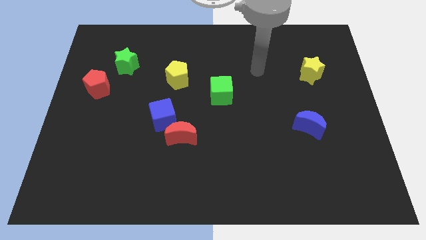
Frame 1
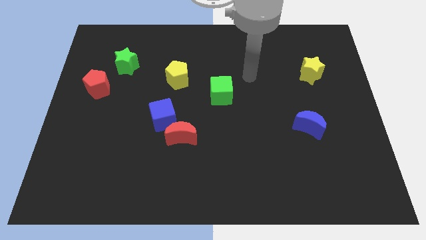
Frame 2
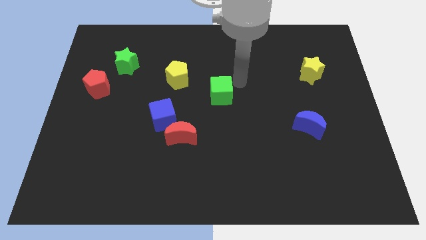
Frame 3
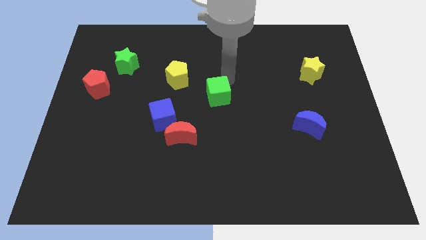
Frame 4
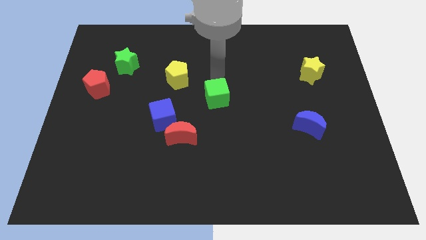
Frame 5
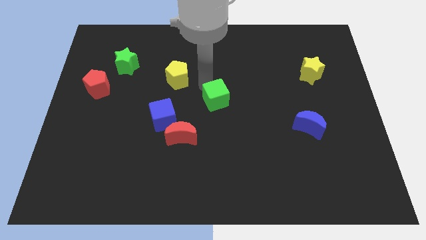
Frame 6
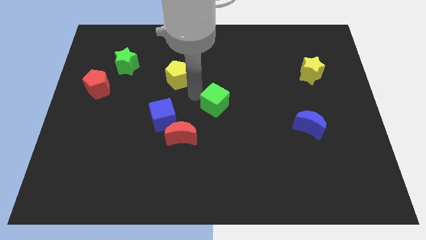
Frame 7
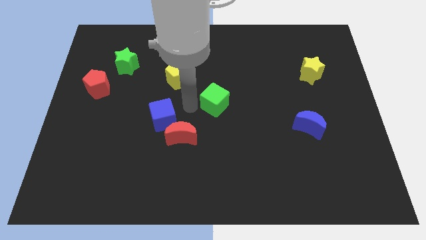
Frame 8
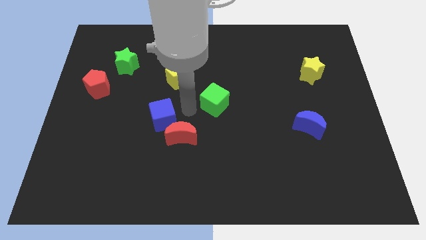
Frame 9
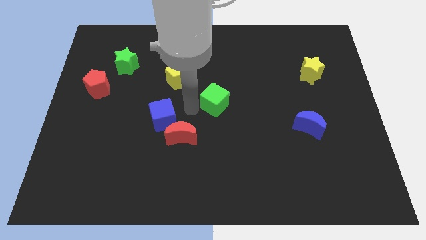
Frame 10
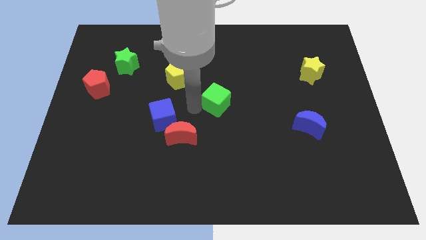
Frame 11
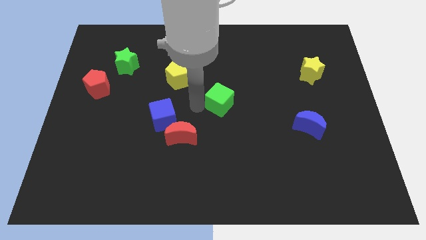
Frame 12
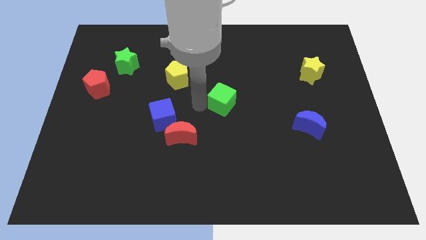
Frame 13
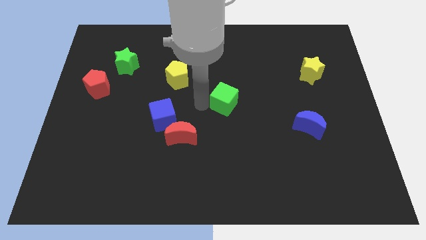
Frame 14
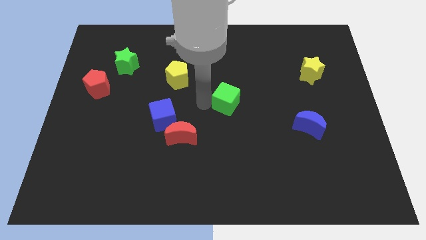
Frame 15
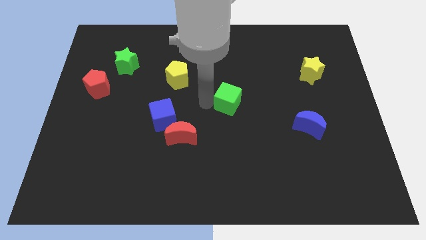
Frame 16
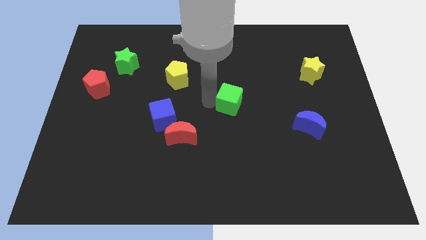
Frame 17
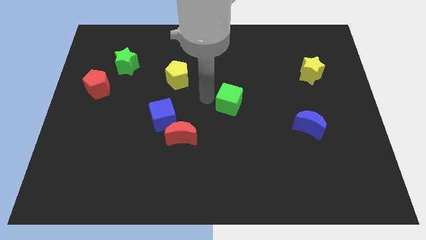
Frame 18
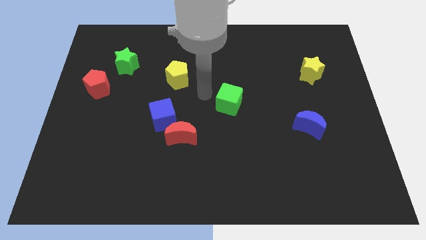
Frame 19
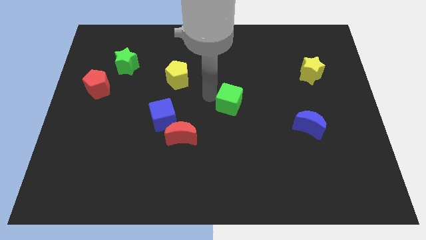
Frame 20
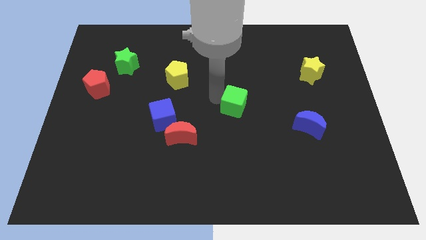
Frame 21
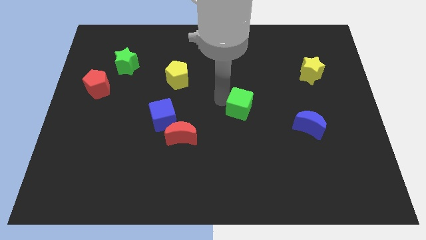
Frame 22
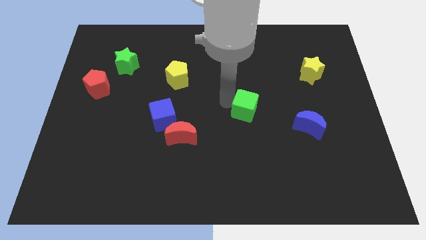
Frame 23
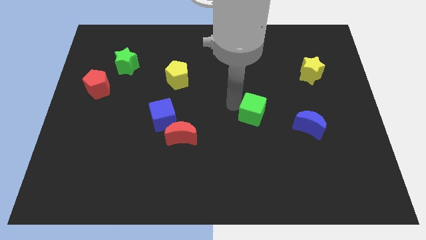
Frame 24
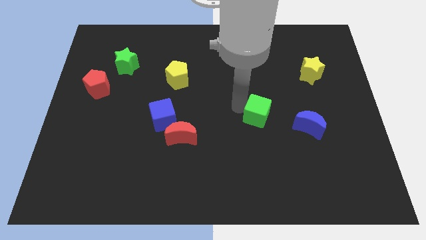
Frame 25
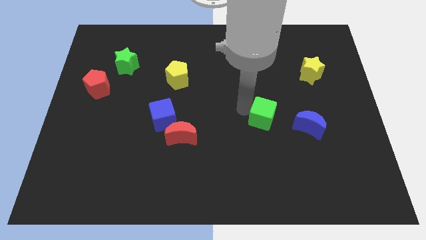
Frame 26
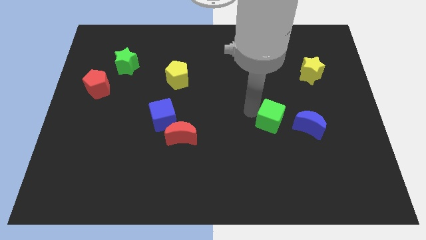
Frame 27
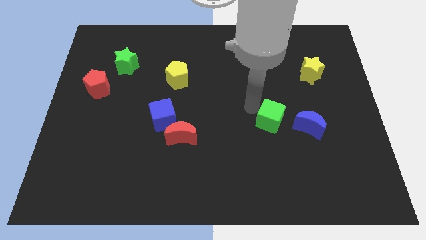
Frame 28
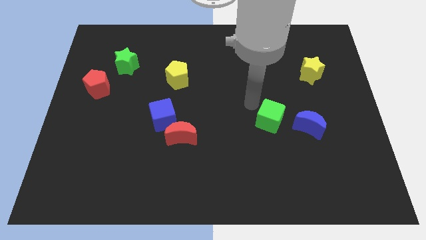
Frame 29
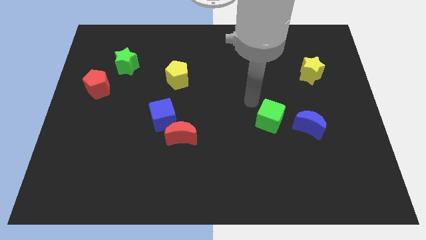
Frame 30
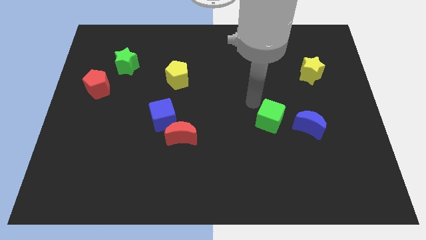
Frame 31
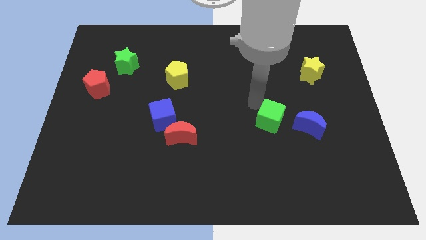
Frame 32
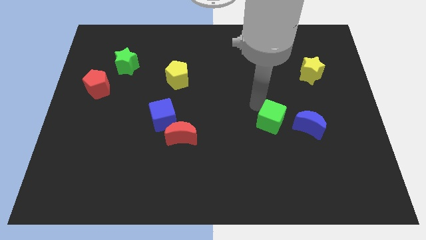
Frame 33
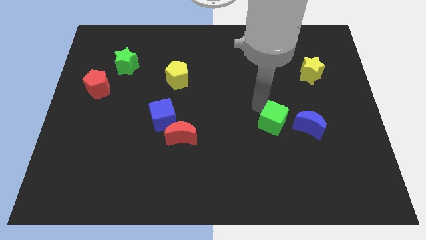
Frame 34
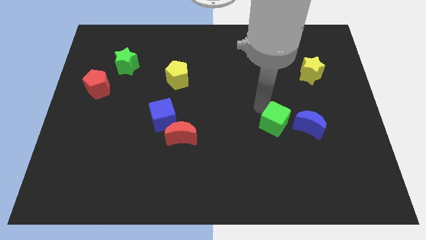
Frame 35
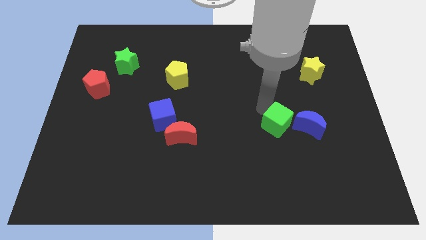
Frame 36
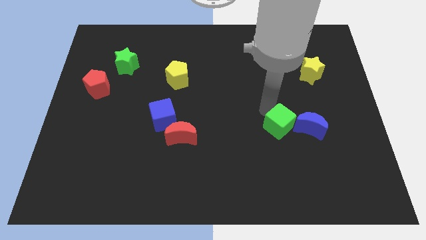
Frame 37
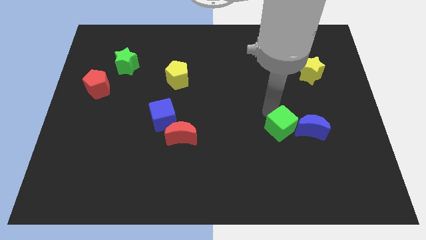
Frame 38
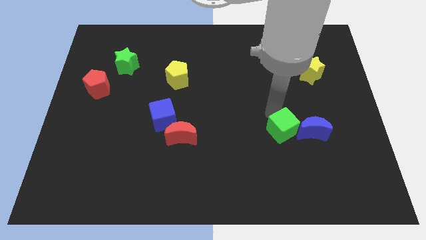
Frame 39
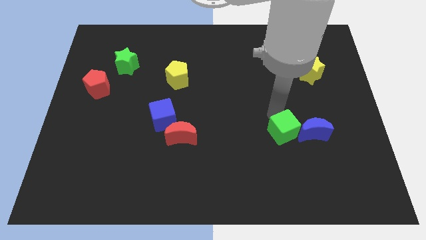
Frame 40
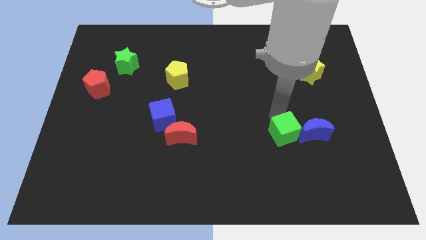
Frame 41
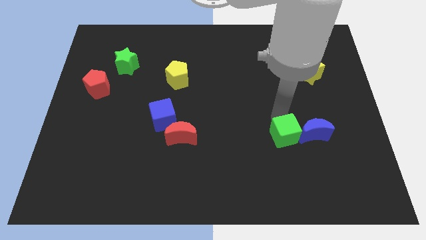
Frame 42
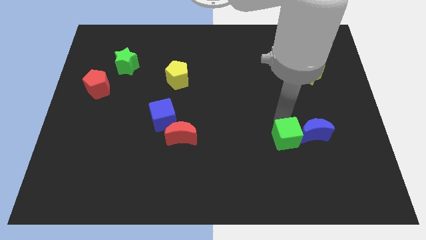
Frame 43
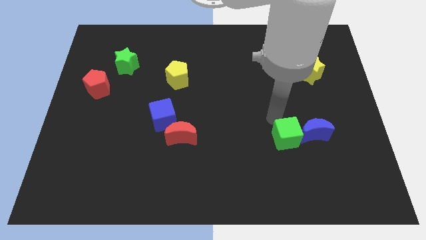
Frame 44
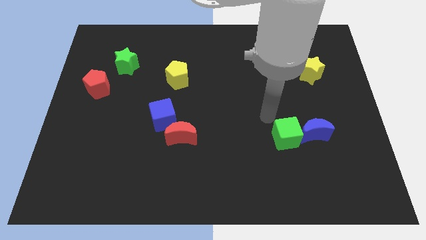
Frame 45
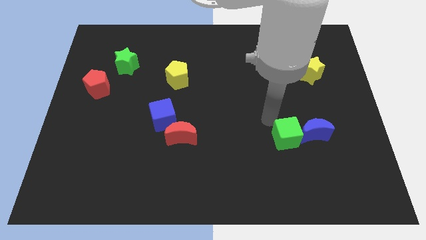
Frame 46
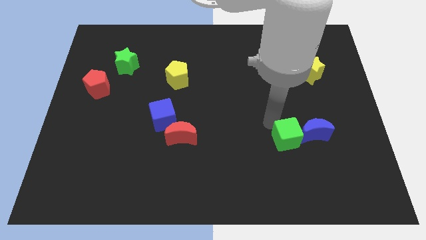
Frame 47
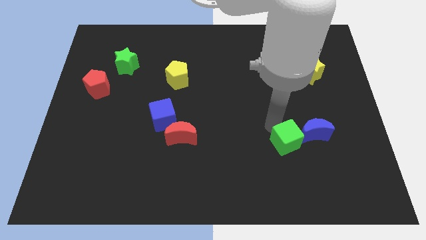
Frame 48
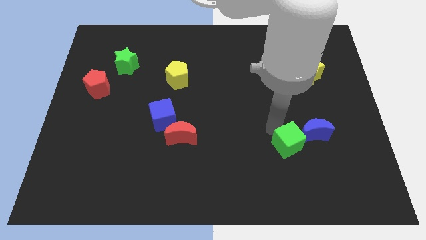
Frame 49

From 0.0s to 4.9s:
move the green cube diagonally down and right

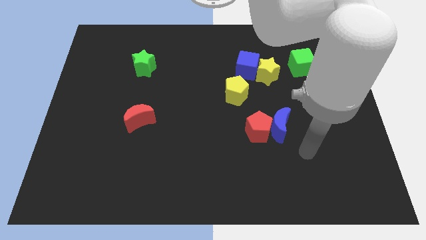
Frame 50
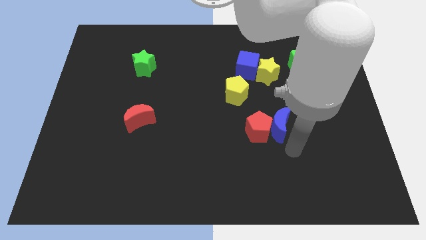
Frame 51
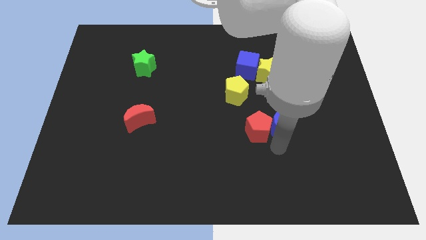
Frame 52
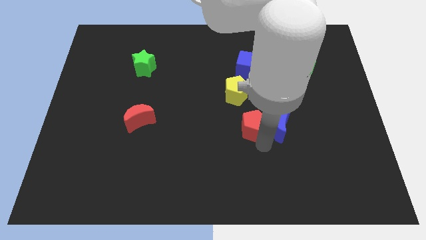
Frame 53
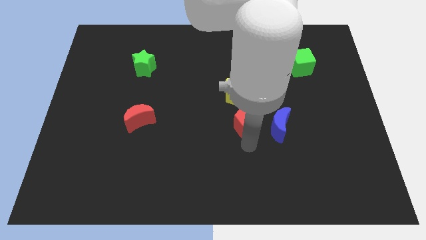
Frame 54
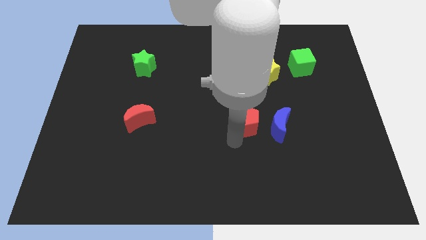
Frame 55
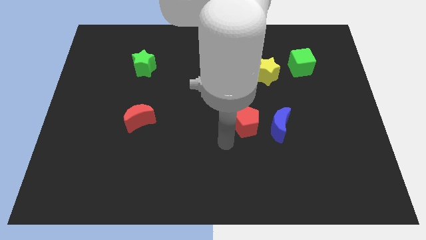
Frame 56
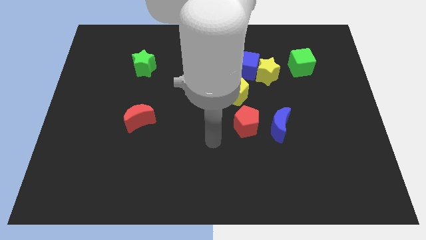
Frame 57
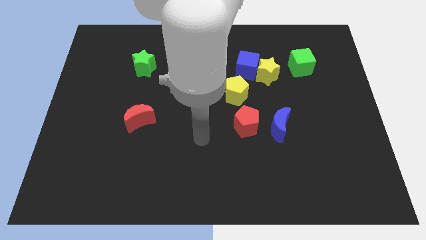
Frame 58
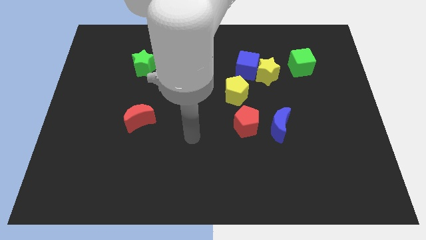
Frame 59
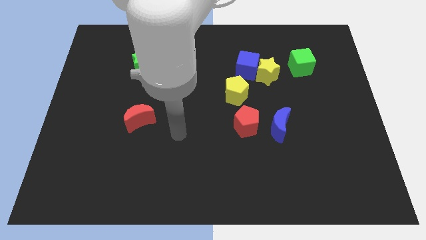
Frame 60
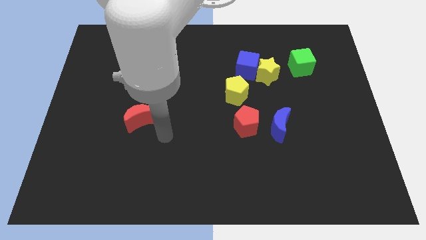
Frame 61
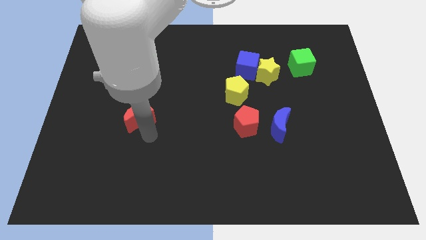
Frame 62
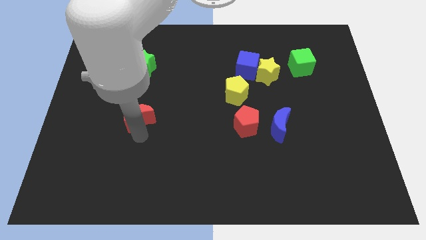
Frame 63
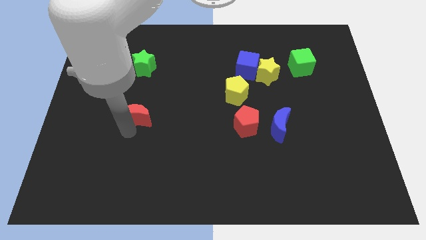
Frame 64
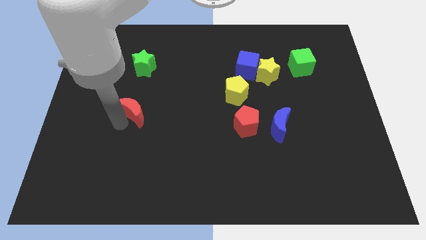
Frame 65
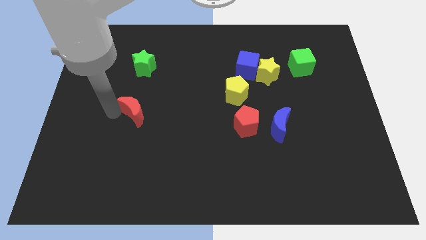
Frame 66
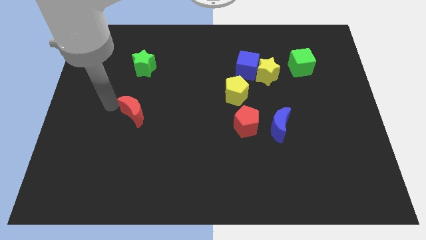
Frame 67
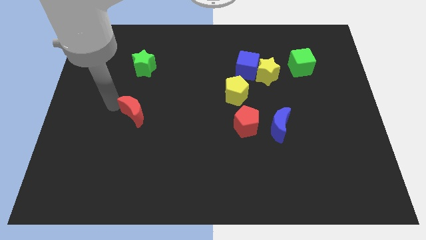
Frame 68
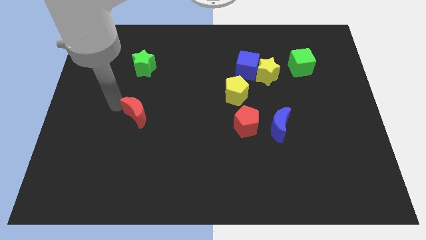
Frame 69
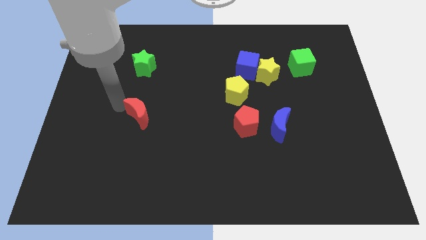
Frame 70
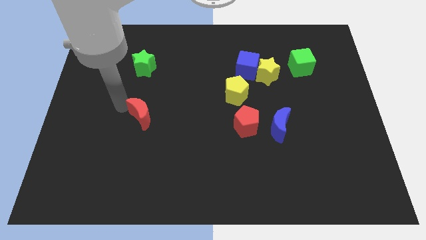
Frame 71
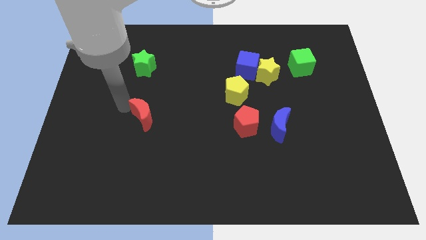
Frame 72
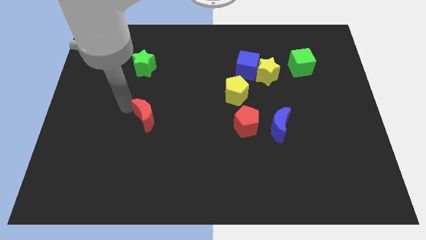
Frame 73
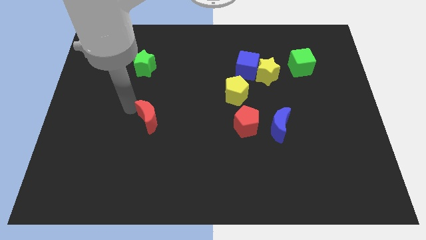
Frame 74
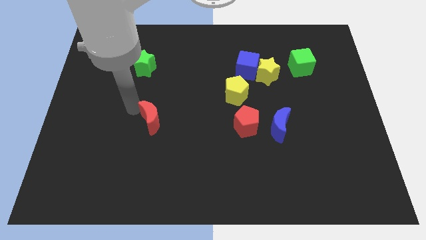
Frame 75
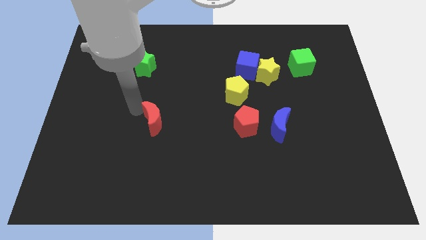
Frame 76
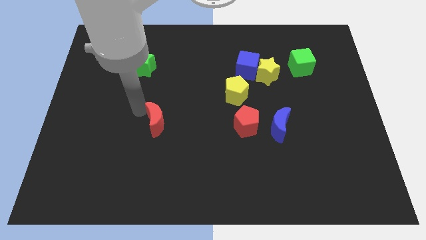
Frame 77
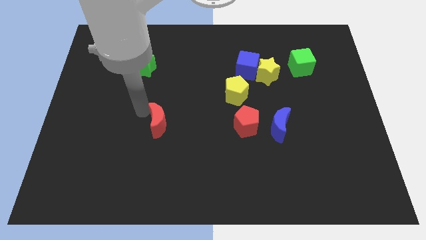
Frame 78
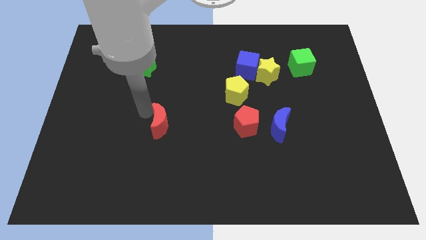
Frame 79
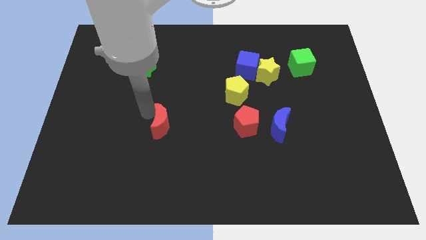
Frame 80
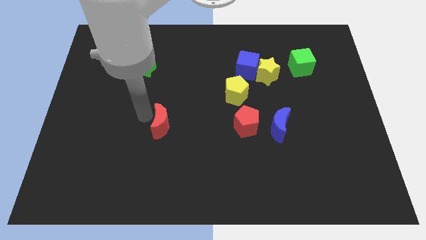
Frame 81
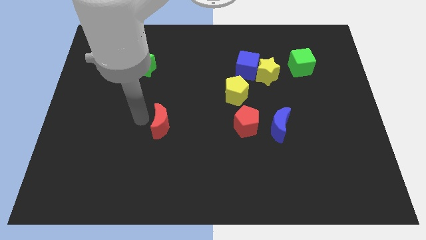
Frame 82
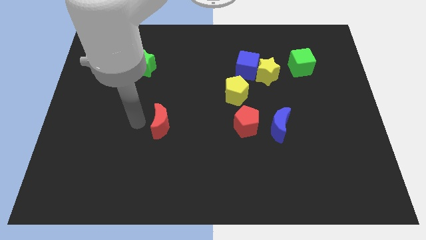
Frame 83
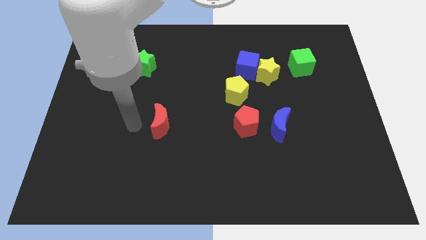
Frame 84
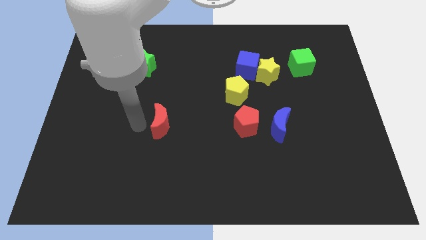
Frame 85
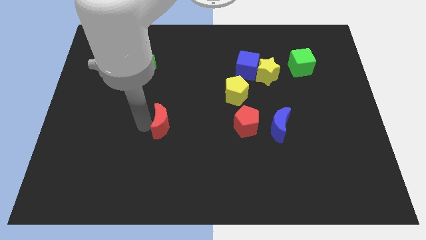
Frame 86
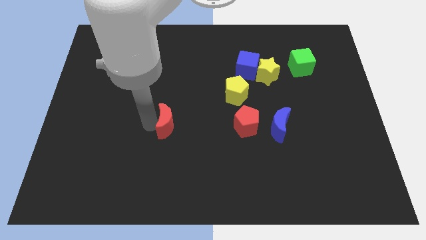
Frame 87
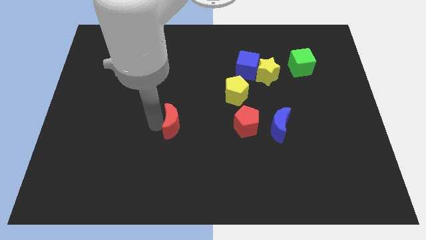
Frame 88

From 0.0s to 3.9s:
slightly push the red moon to the right
